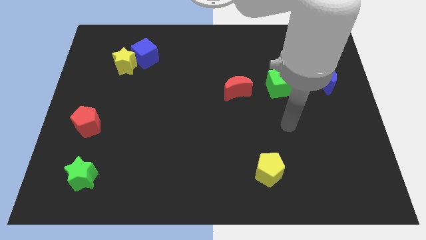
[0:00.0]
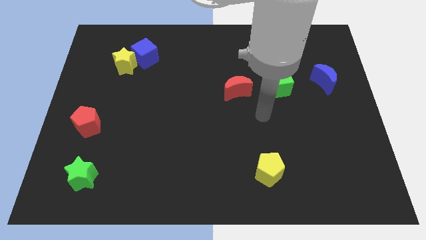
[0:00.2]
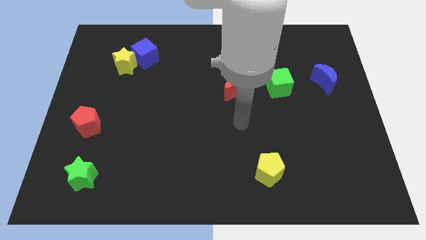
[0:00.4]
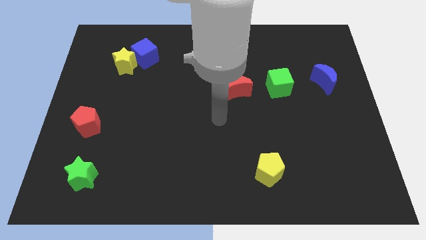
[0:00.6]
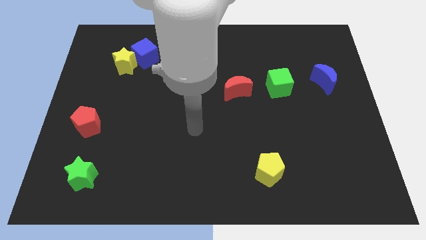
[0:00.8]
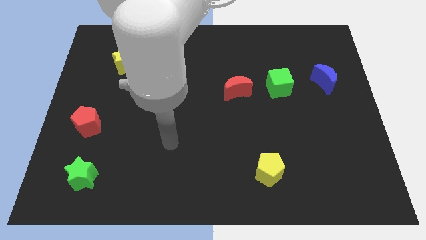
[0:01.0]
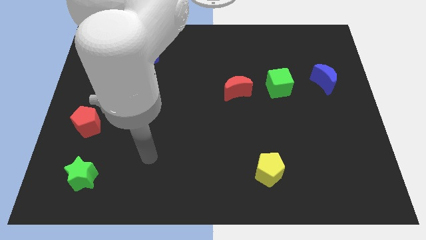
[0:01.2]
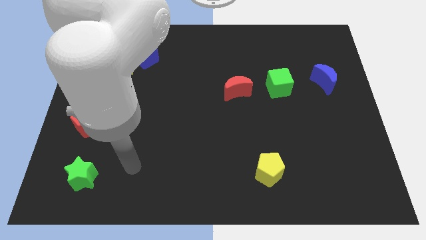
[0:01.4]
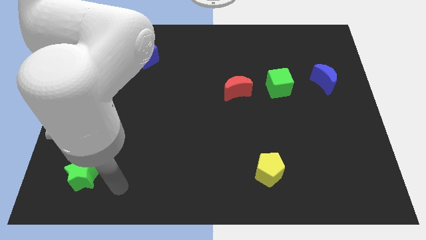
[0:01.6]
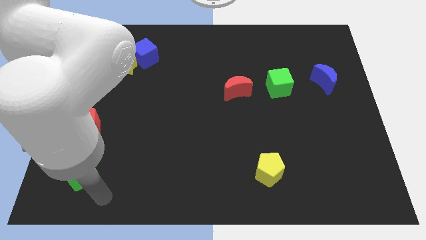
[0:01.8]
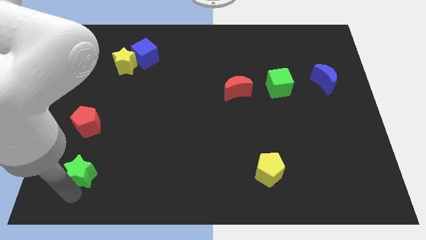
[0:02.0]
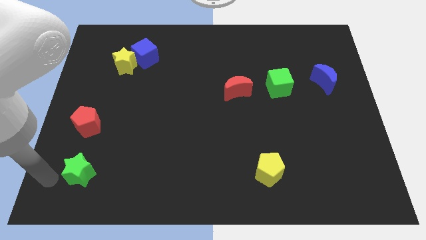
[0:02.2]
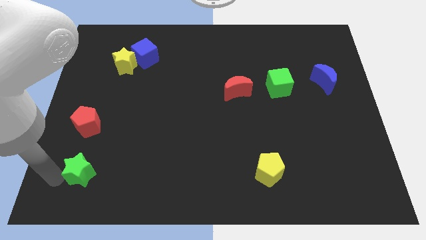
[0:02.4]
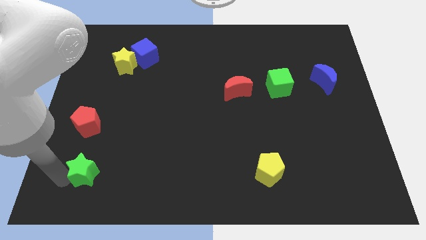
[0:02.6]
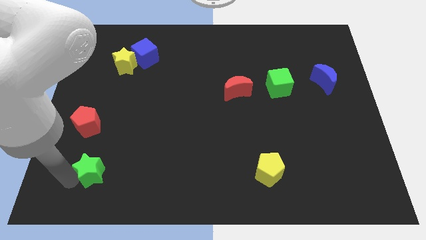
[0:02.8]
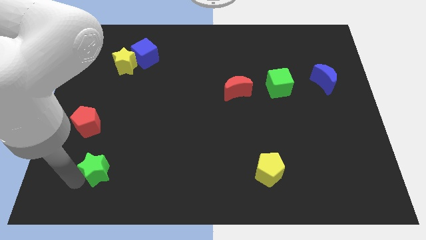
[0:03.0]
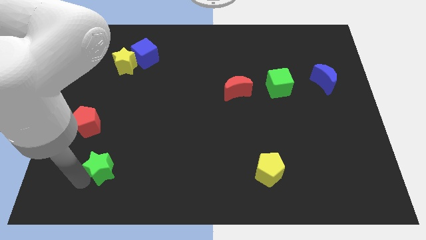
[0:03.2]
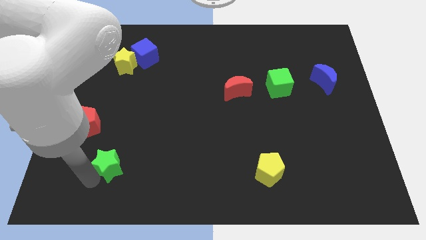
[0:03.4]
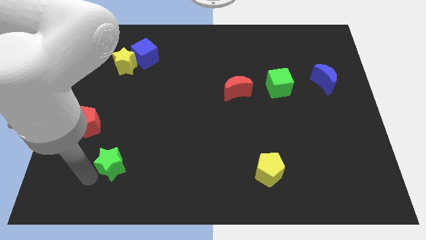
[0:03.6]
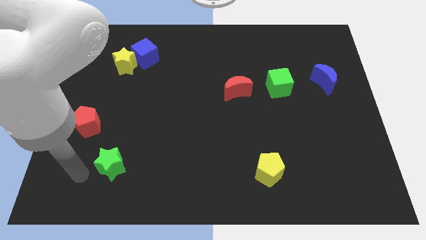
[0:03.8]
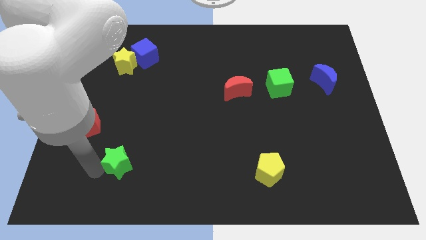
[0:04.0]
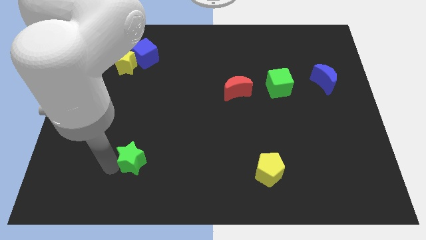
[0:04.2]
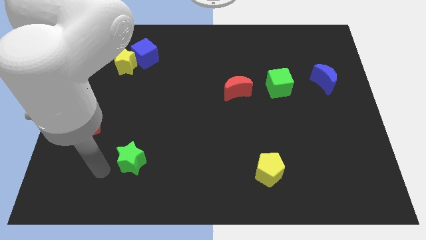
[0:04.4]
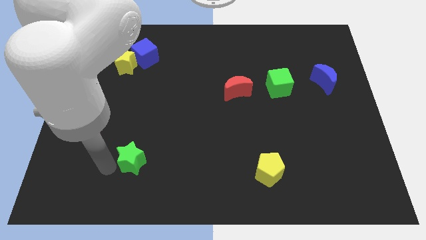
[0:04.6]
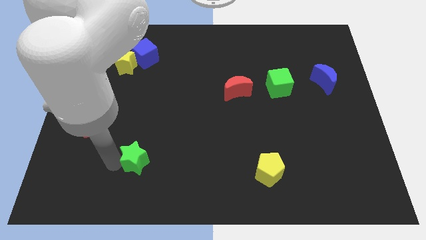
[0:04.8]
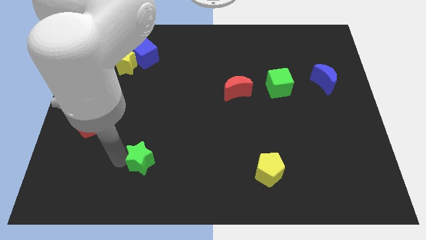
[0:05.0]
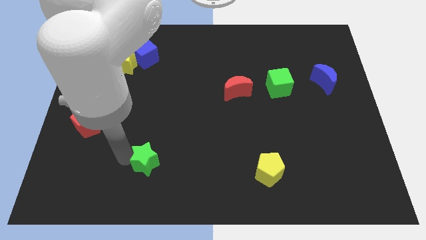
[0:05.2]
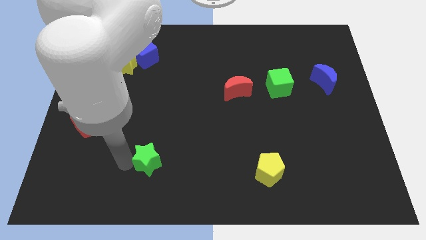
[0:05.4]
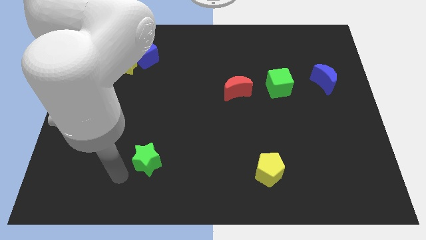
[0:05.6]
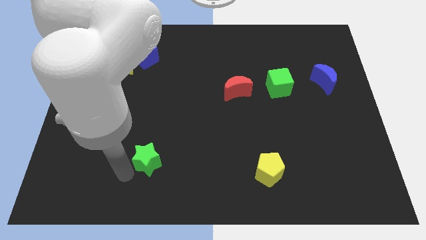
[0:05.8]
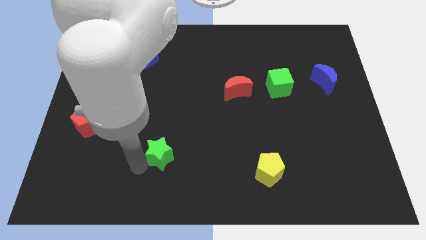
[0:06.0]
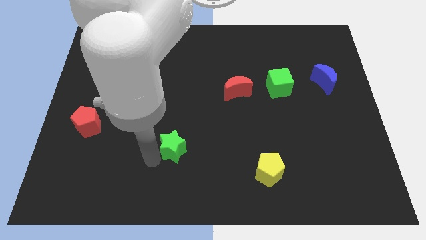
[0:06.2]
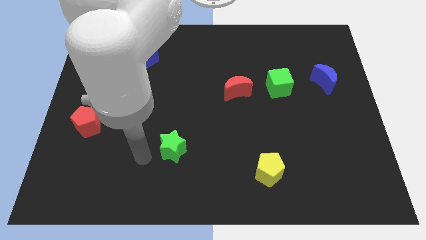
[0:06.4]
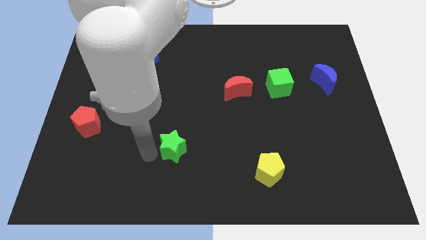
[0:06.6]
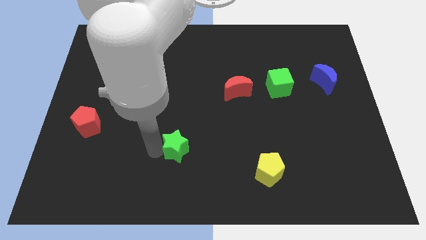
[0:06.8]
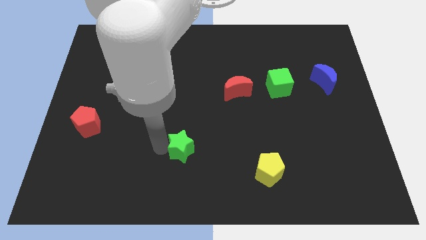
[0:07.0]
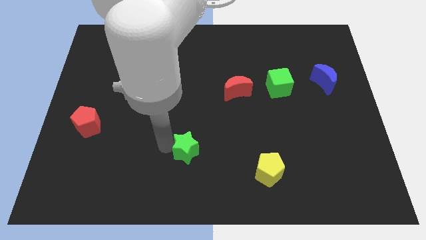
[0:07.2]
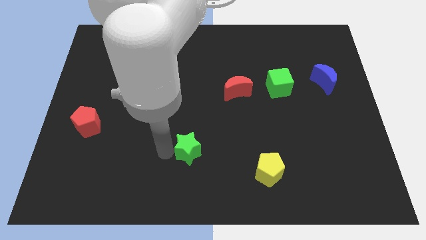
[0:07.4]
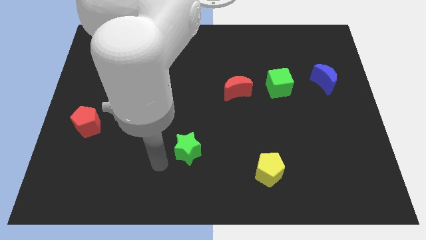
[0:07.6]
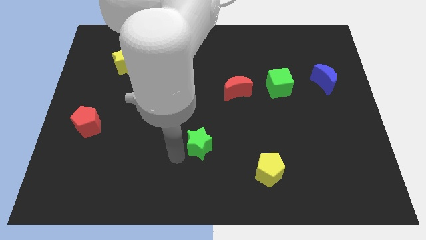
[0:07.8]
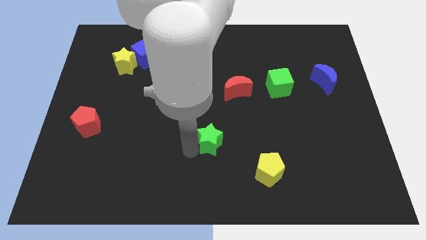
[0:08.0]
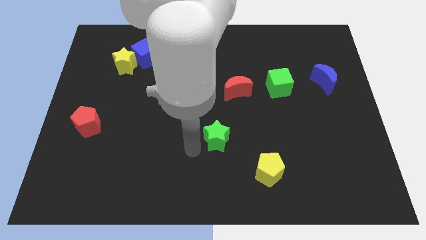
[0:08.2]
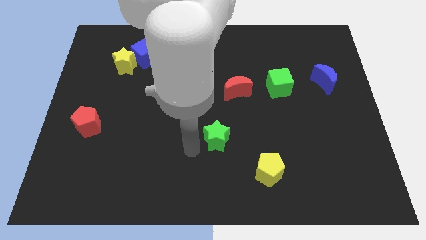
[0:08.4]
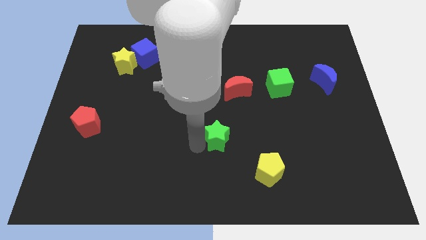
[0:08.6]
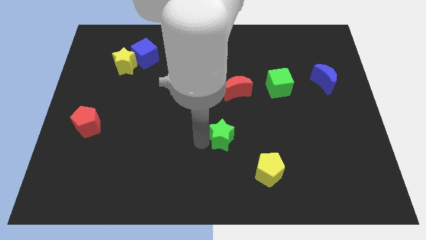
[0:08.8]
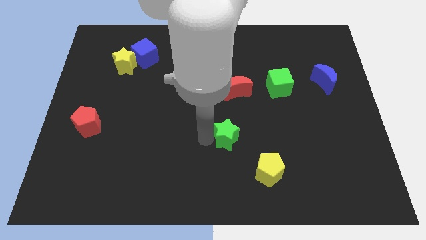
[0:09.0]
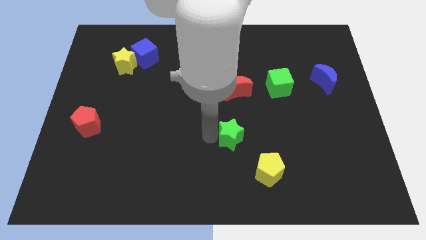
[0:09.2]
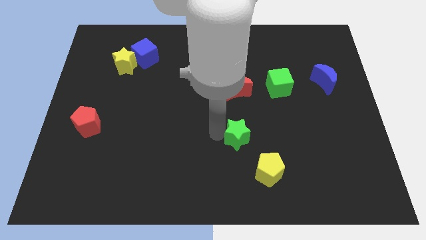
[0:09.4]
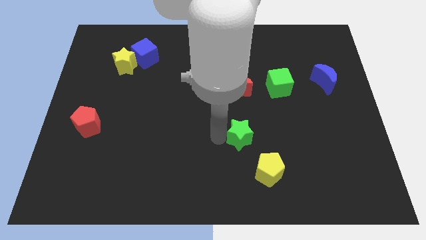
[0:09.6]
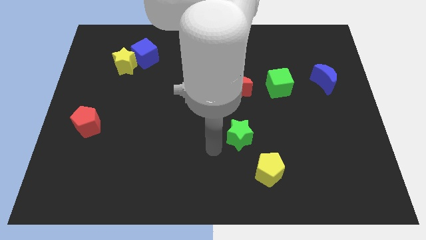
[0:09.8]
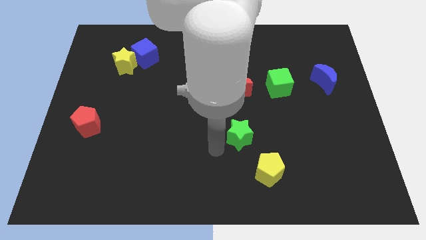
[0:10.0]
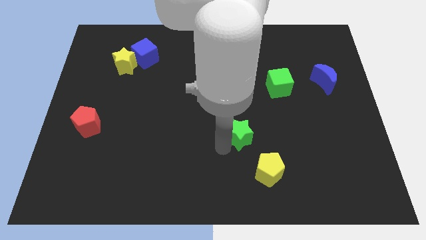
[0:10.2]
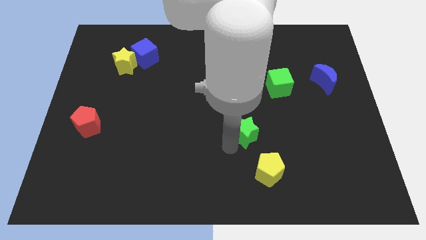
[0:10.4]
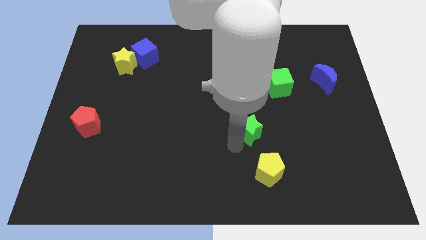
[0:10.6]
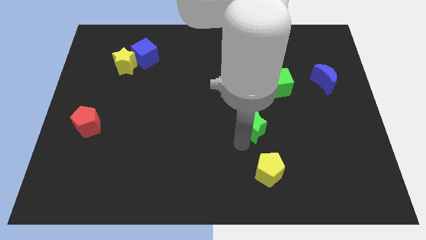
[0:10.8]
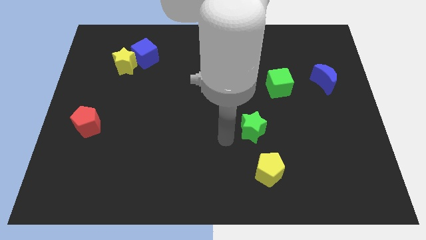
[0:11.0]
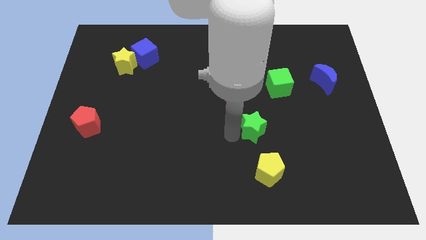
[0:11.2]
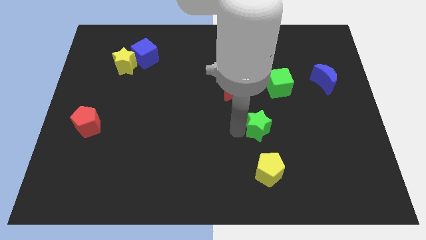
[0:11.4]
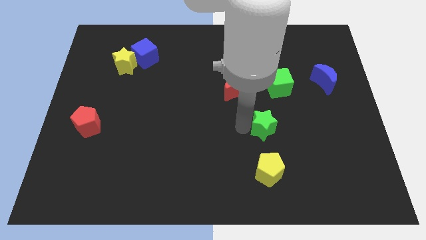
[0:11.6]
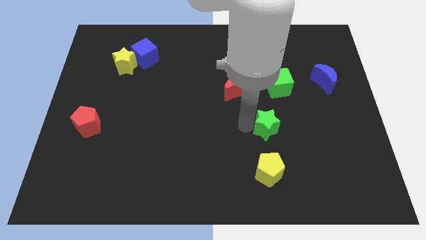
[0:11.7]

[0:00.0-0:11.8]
slide the green star to the bottom of the green cube

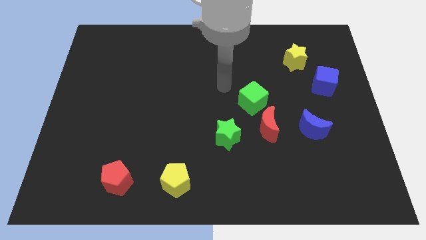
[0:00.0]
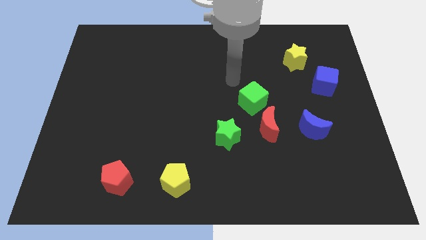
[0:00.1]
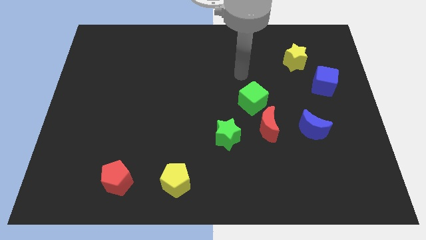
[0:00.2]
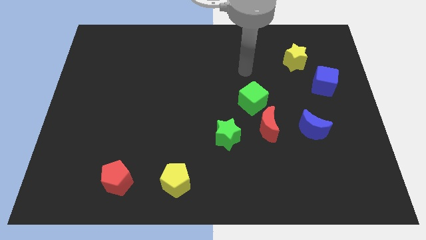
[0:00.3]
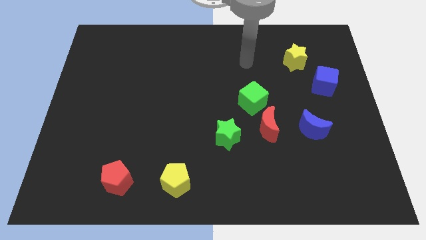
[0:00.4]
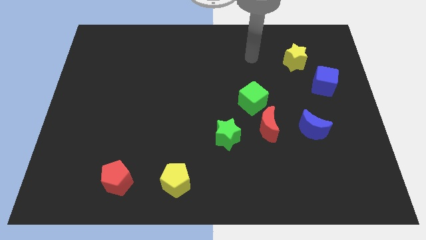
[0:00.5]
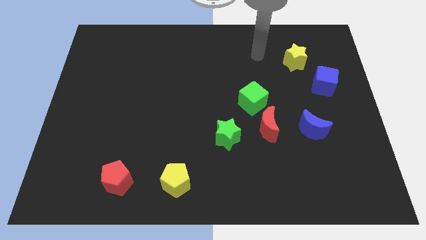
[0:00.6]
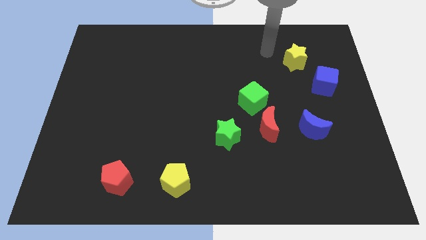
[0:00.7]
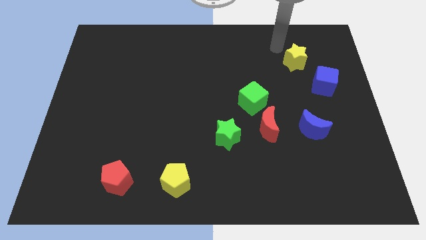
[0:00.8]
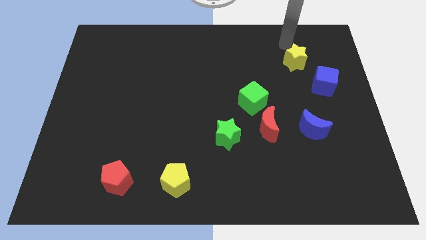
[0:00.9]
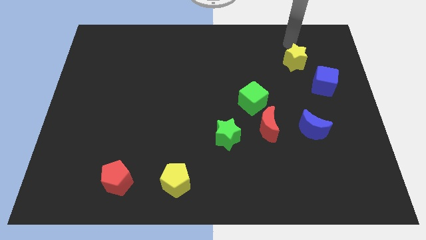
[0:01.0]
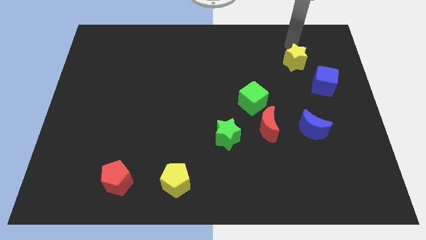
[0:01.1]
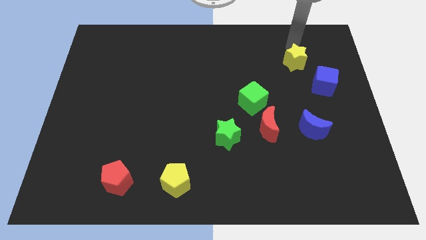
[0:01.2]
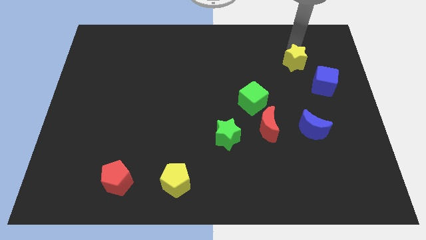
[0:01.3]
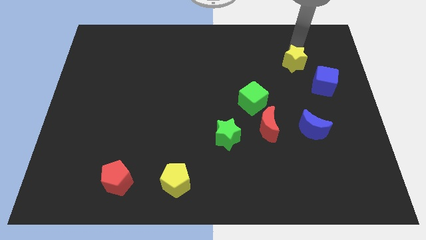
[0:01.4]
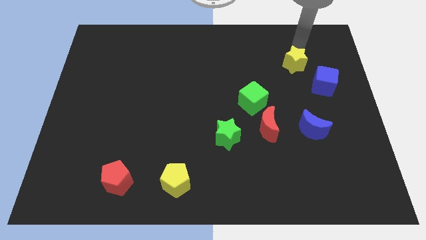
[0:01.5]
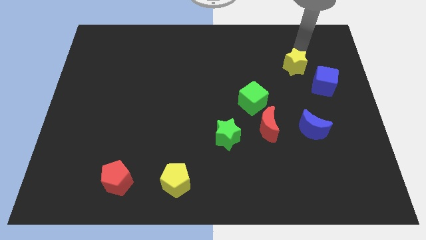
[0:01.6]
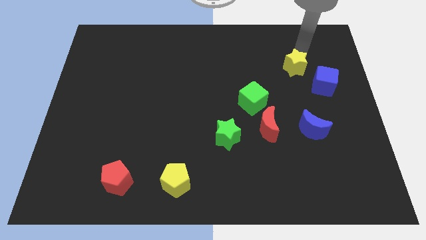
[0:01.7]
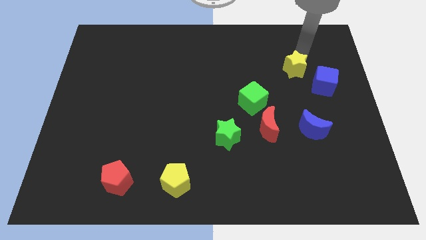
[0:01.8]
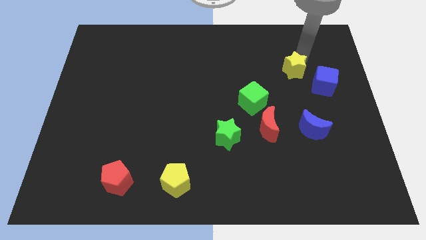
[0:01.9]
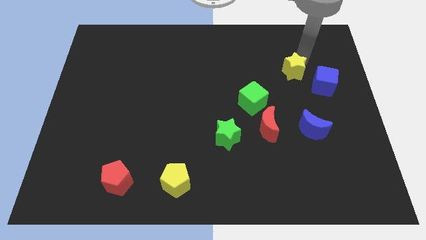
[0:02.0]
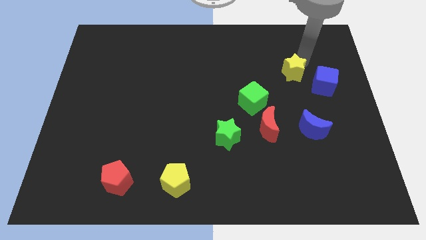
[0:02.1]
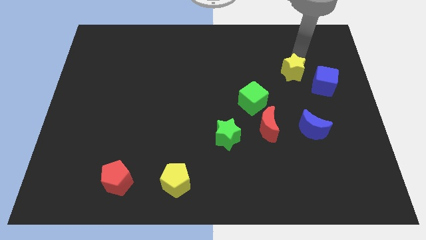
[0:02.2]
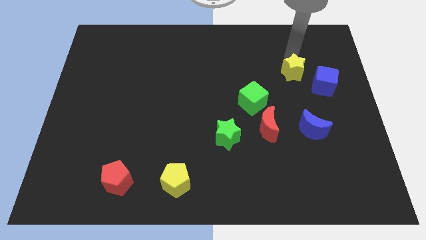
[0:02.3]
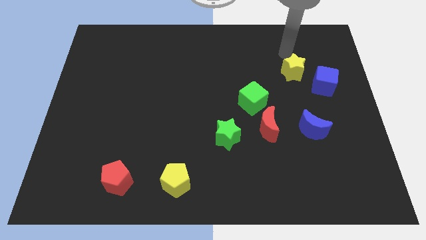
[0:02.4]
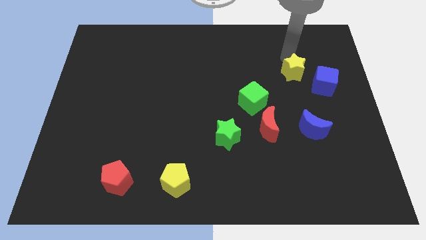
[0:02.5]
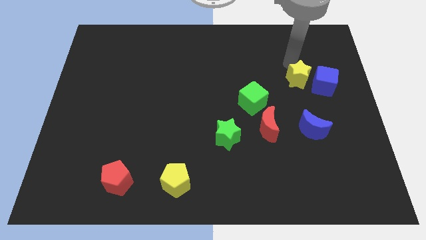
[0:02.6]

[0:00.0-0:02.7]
slide the yellow star to the top of the blue moon
